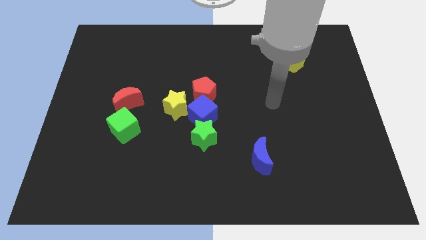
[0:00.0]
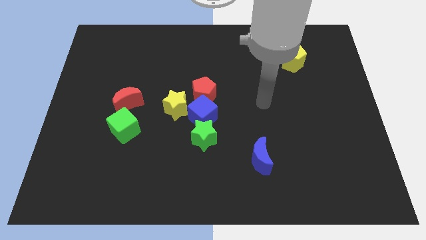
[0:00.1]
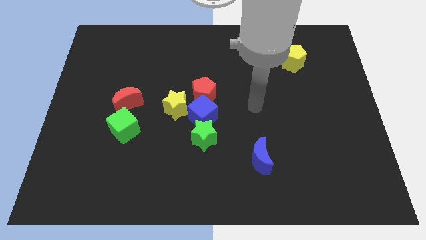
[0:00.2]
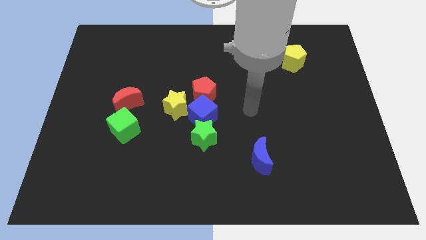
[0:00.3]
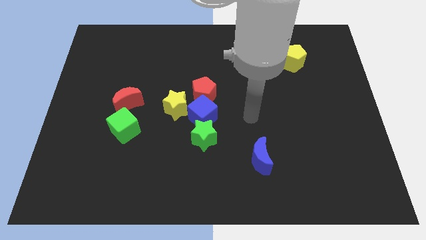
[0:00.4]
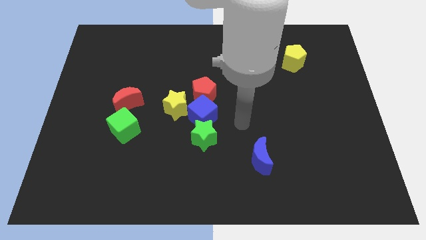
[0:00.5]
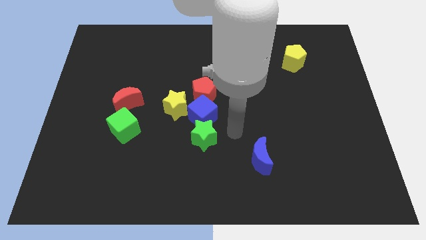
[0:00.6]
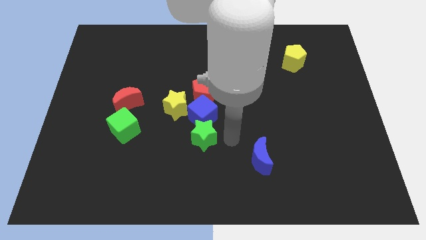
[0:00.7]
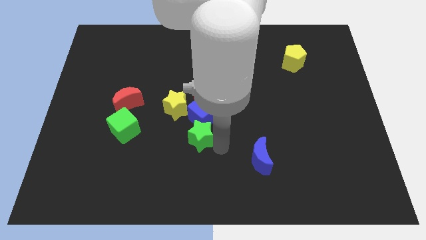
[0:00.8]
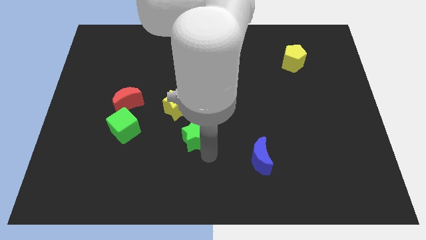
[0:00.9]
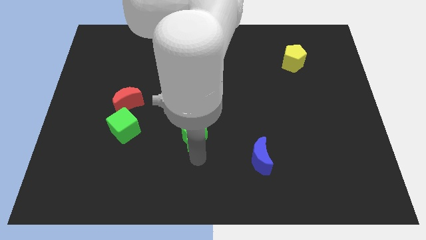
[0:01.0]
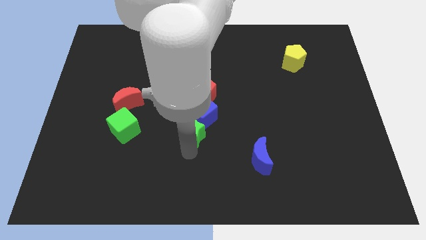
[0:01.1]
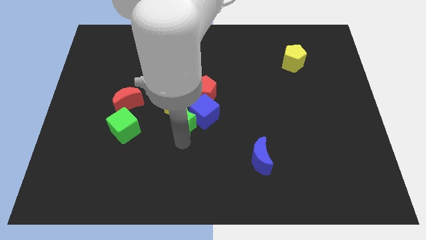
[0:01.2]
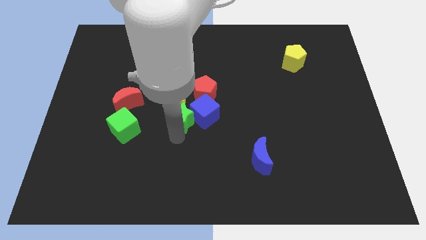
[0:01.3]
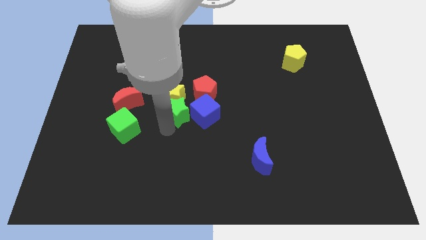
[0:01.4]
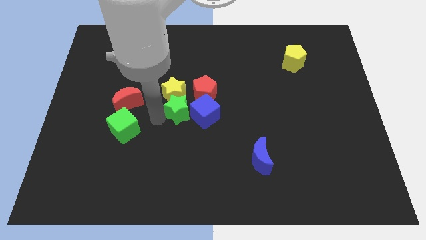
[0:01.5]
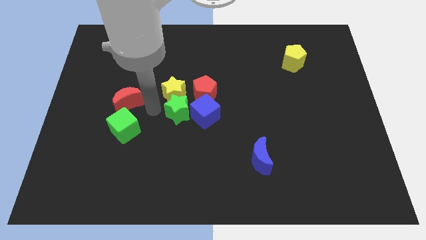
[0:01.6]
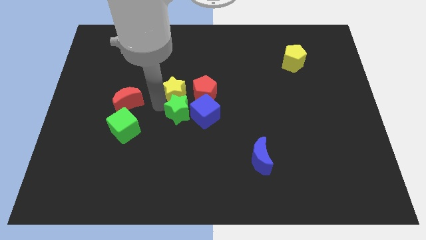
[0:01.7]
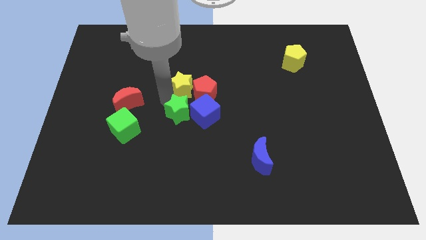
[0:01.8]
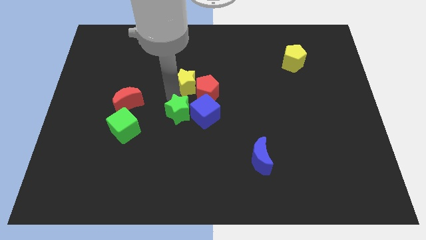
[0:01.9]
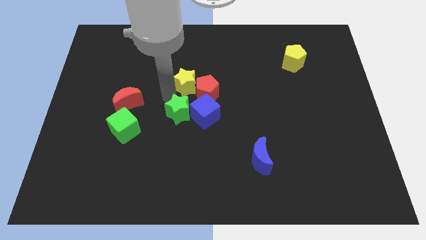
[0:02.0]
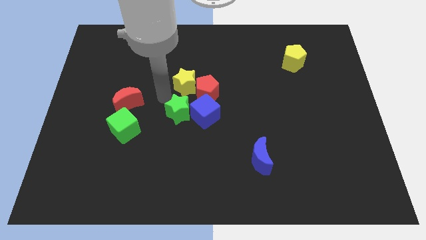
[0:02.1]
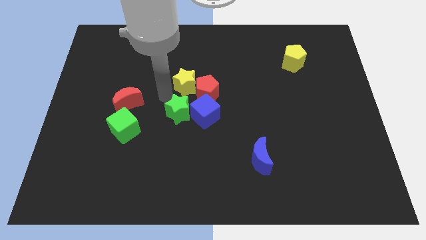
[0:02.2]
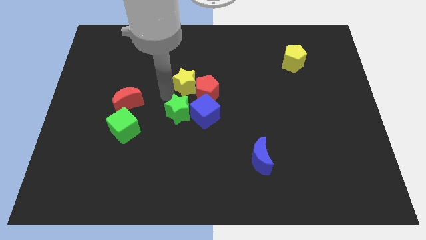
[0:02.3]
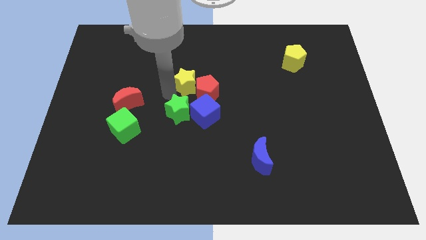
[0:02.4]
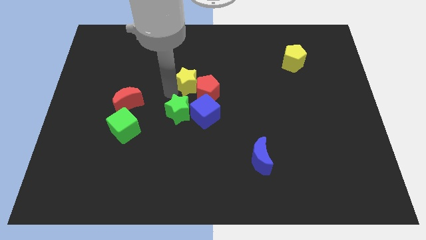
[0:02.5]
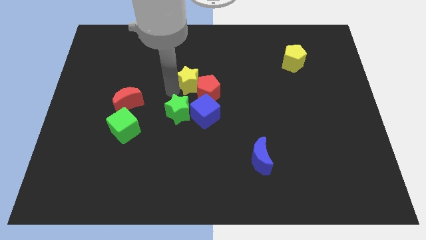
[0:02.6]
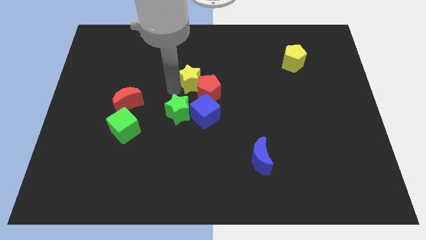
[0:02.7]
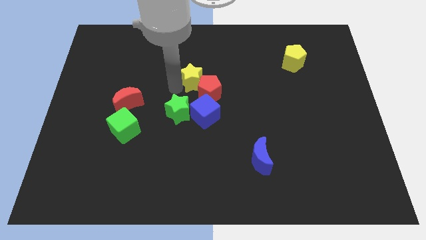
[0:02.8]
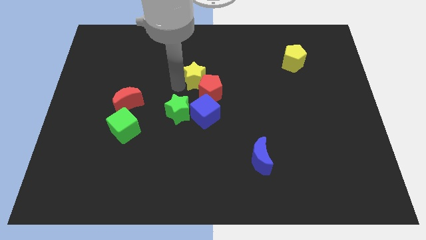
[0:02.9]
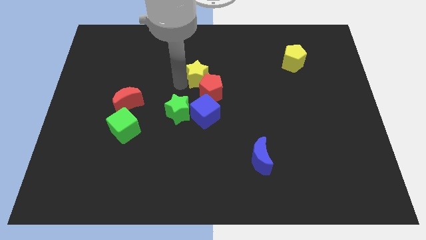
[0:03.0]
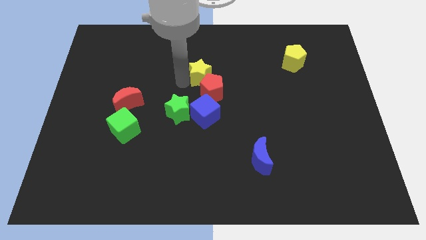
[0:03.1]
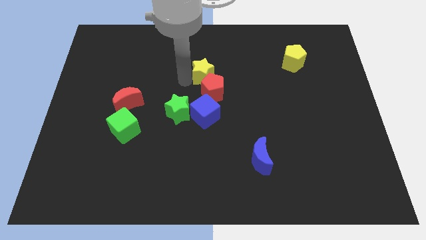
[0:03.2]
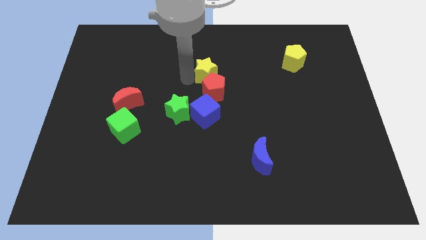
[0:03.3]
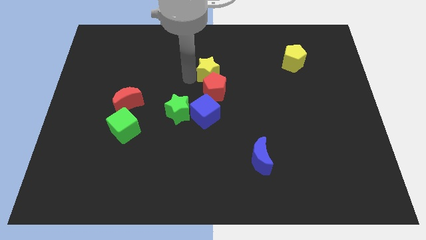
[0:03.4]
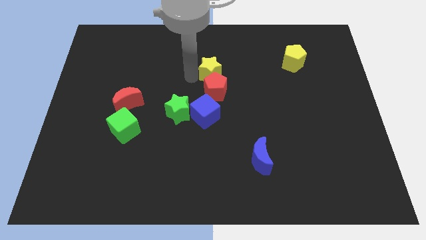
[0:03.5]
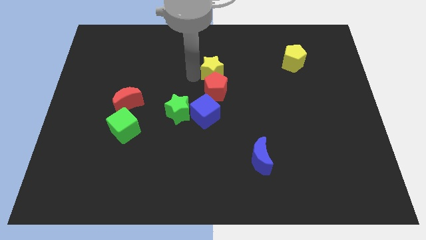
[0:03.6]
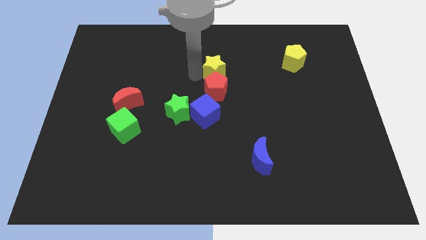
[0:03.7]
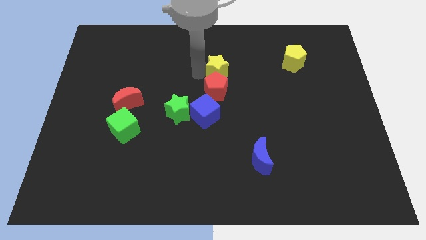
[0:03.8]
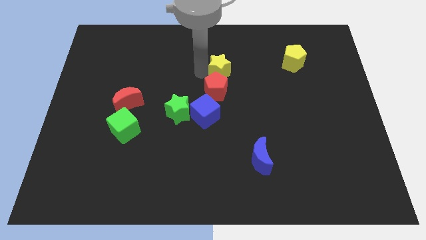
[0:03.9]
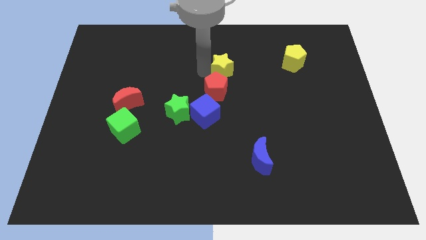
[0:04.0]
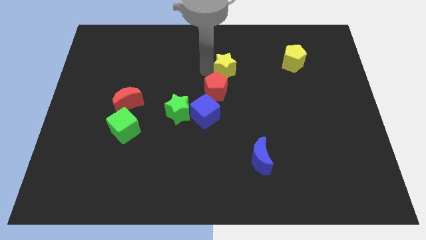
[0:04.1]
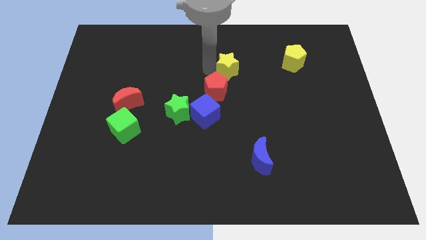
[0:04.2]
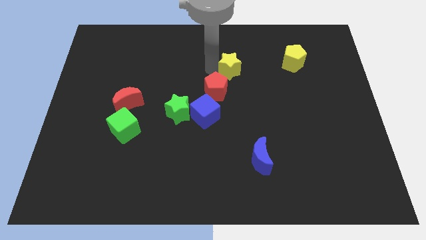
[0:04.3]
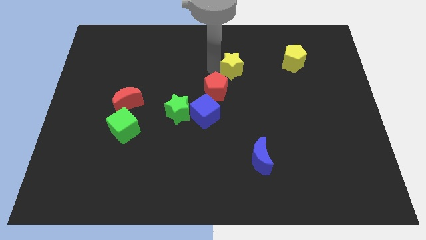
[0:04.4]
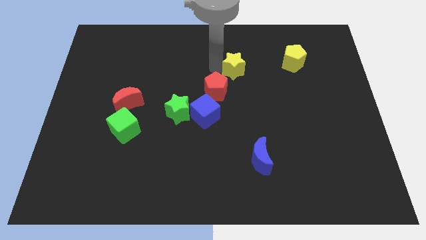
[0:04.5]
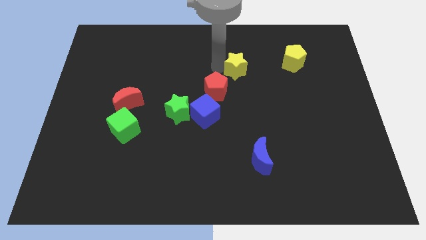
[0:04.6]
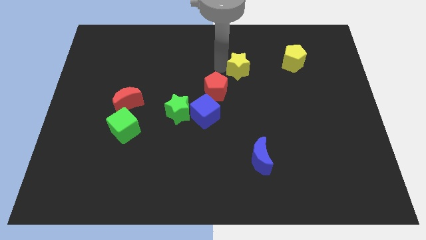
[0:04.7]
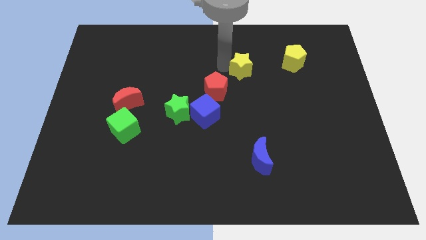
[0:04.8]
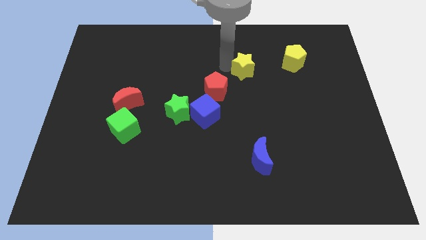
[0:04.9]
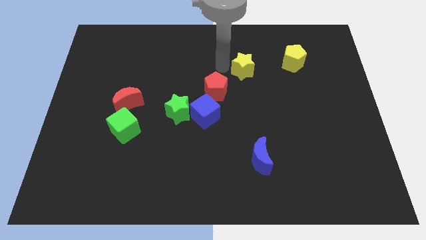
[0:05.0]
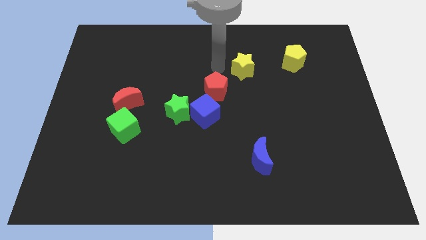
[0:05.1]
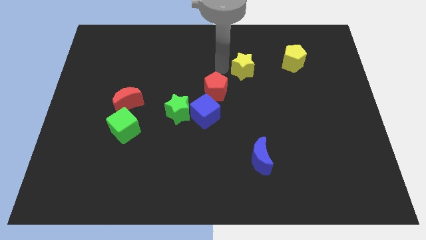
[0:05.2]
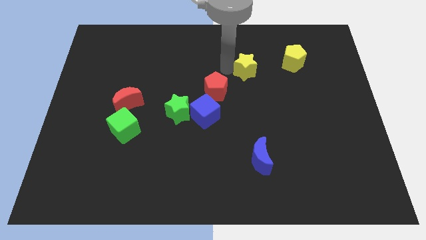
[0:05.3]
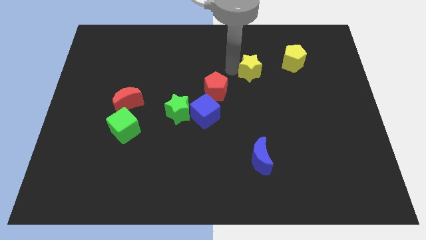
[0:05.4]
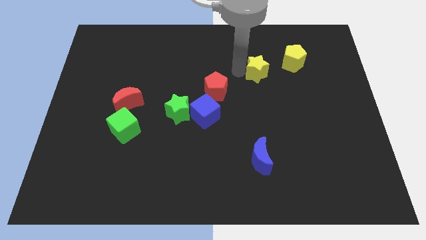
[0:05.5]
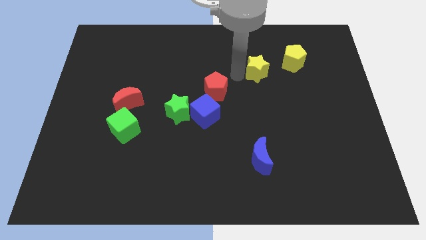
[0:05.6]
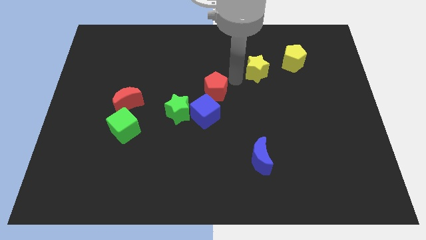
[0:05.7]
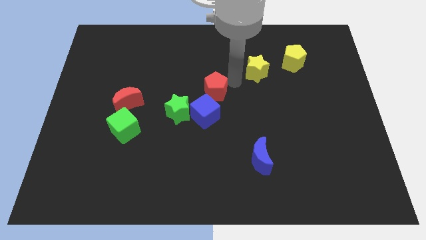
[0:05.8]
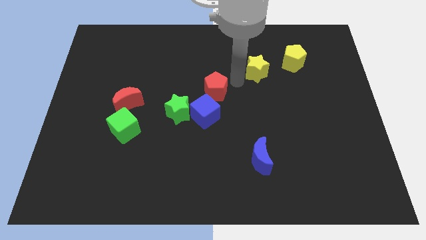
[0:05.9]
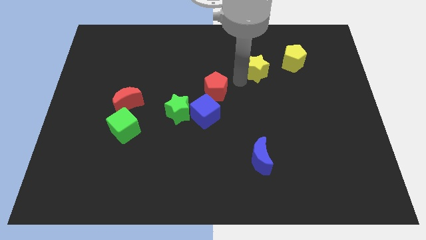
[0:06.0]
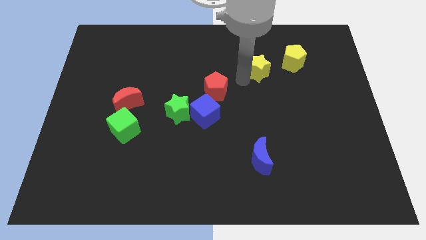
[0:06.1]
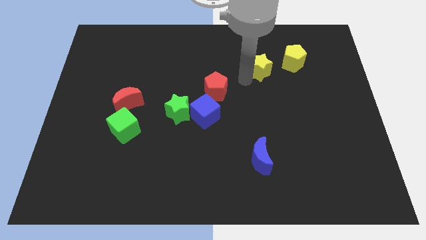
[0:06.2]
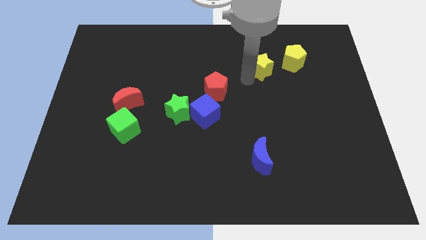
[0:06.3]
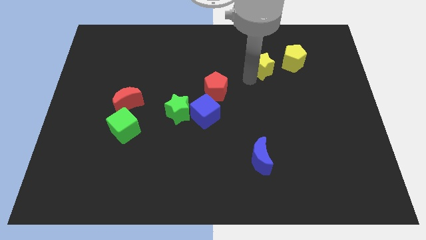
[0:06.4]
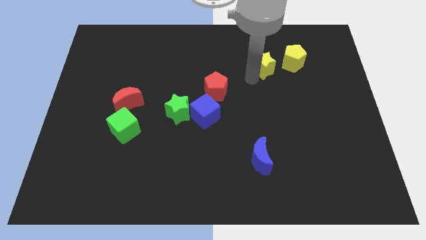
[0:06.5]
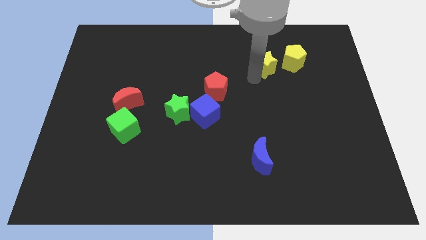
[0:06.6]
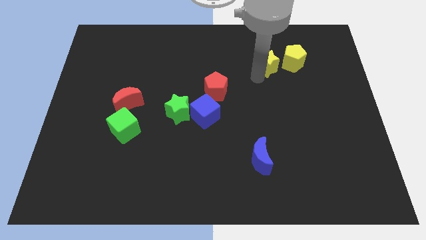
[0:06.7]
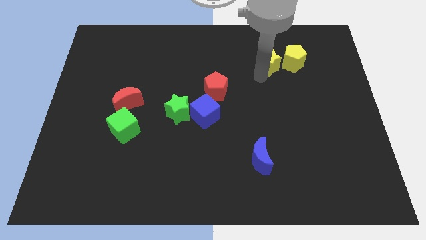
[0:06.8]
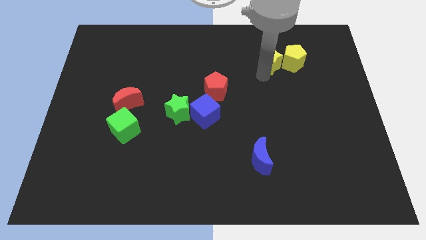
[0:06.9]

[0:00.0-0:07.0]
put the yellow star to the yellow pentagon

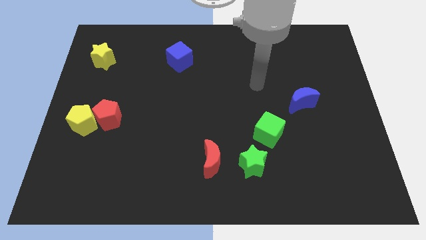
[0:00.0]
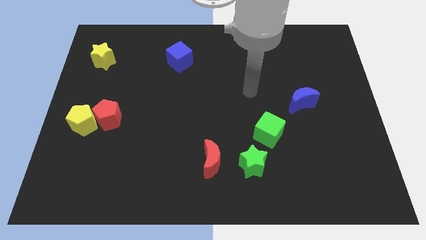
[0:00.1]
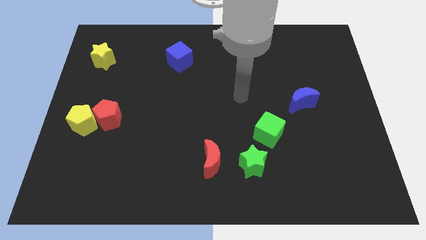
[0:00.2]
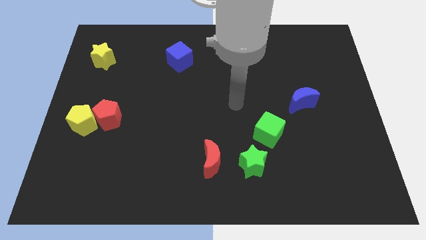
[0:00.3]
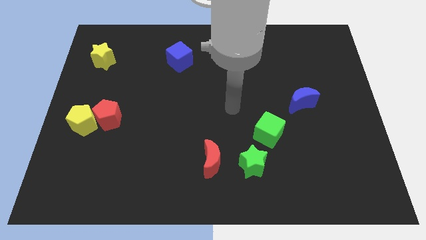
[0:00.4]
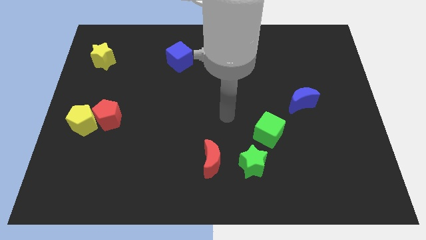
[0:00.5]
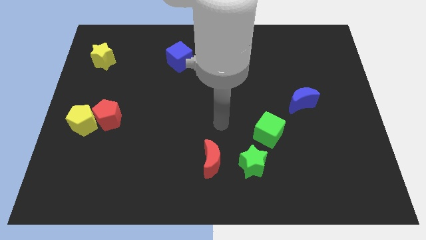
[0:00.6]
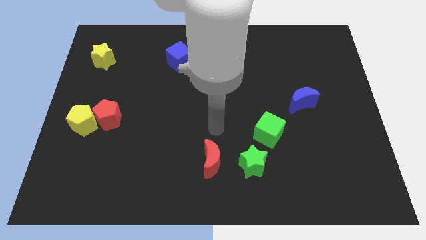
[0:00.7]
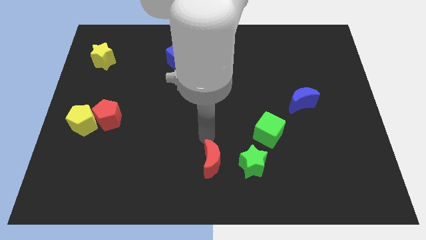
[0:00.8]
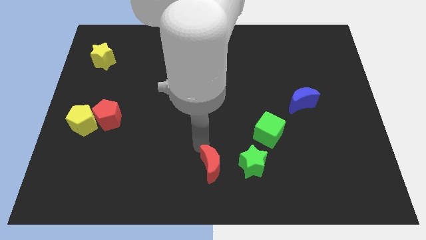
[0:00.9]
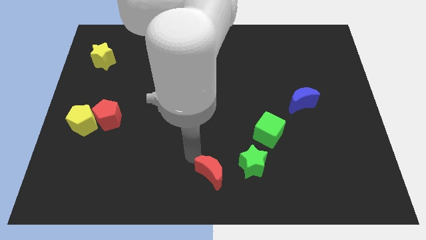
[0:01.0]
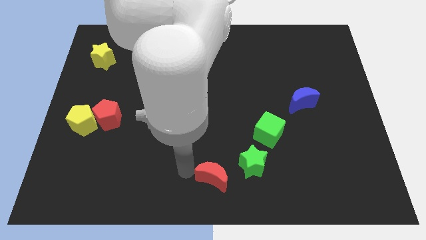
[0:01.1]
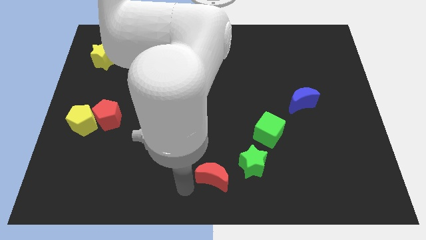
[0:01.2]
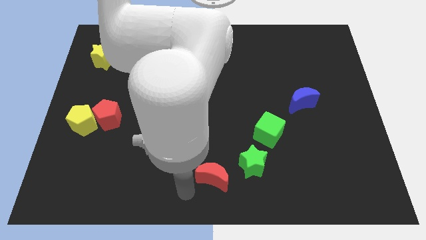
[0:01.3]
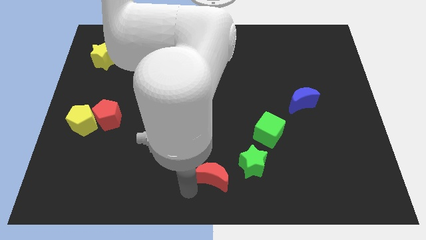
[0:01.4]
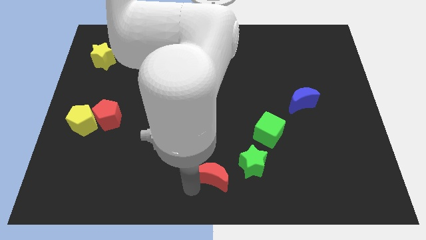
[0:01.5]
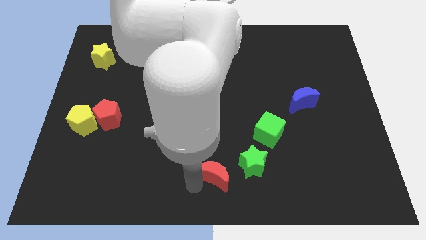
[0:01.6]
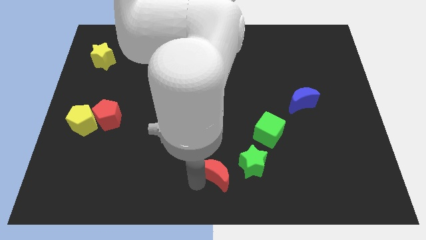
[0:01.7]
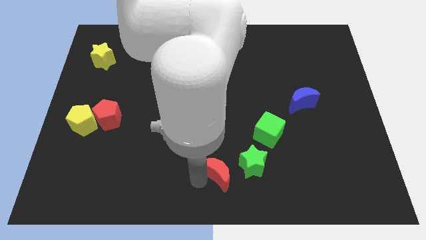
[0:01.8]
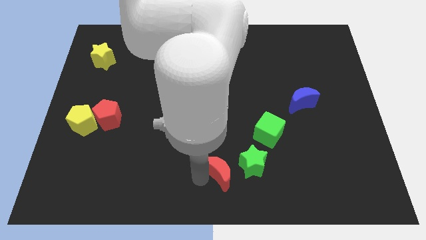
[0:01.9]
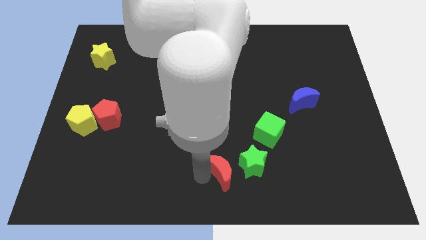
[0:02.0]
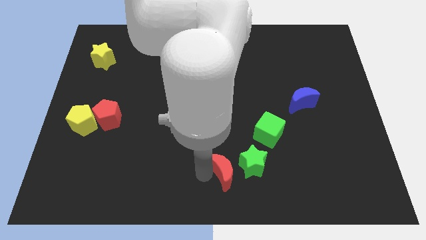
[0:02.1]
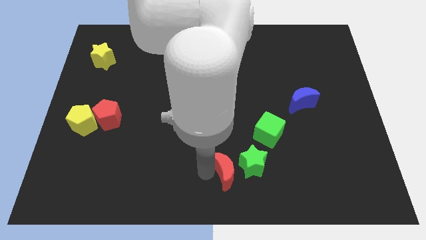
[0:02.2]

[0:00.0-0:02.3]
put the red moon to the green star
